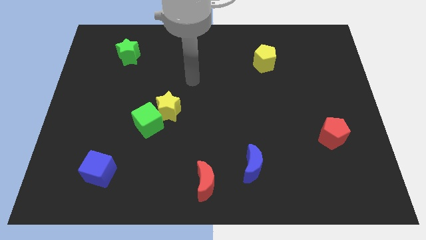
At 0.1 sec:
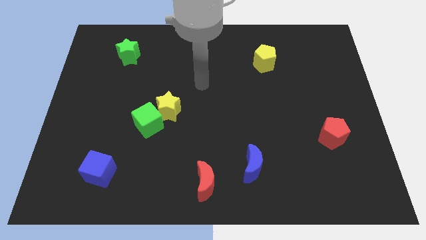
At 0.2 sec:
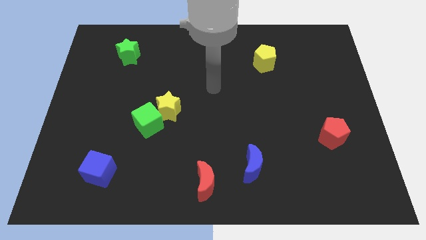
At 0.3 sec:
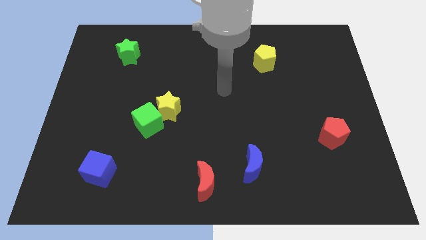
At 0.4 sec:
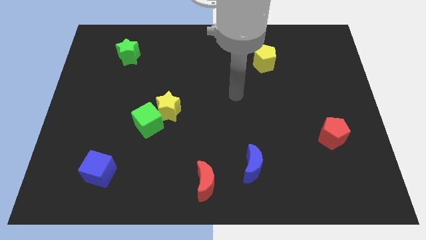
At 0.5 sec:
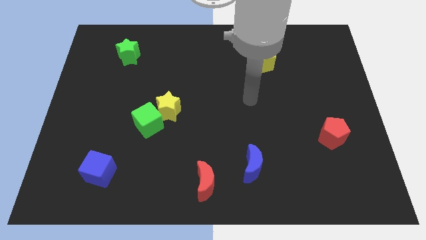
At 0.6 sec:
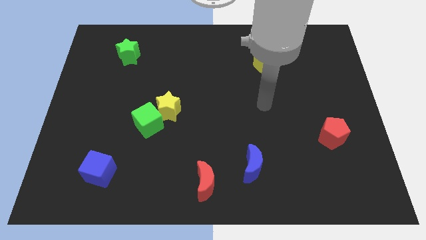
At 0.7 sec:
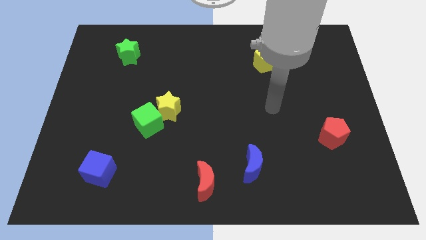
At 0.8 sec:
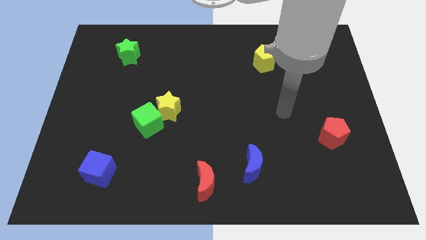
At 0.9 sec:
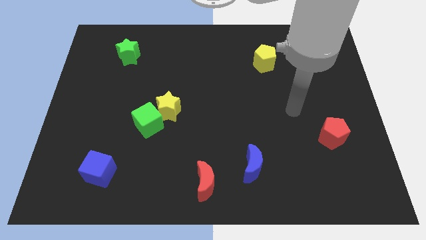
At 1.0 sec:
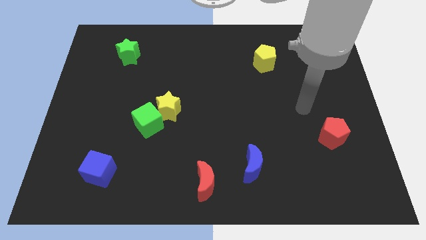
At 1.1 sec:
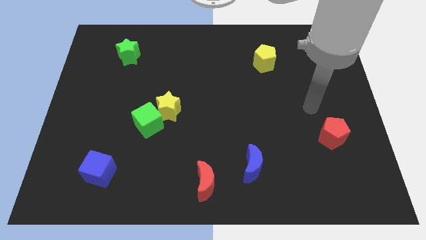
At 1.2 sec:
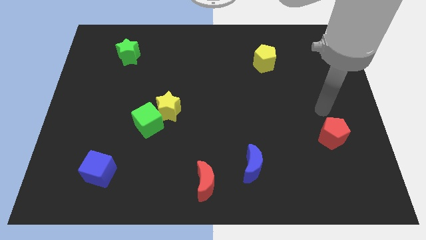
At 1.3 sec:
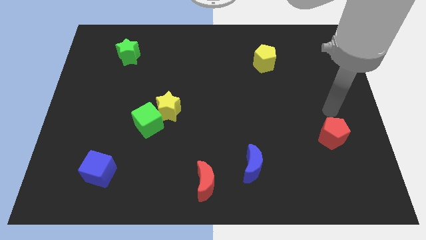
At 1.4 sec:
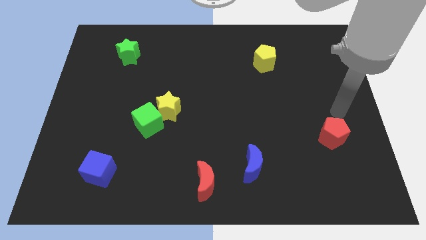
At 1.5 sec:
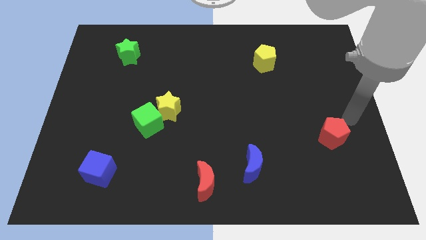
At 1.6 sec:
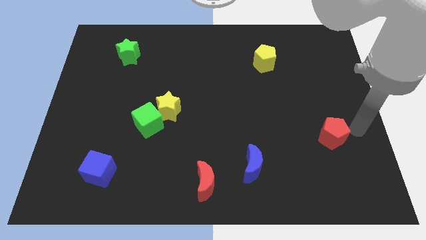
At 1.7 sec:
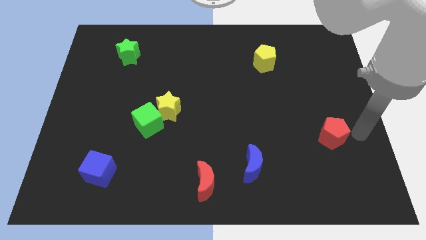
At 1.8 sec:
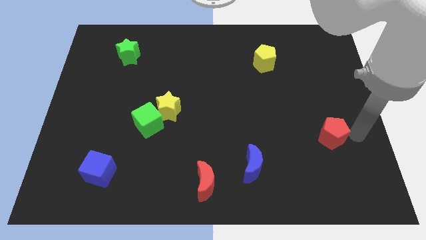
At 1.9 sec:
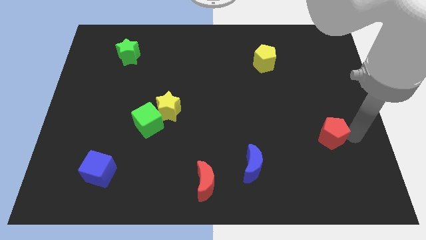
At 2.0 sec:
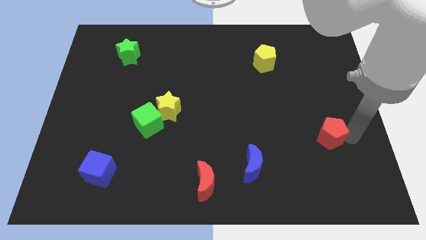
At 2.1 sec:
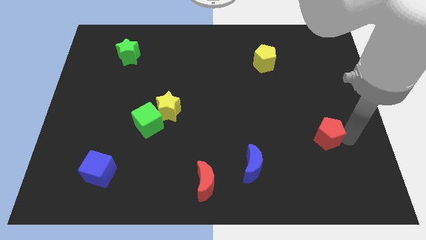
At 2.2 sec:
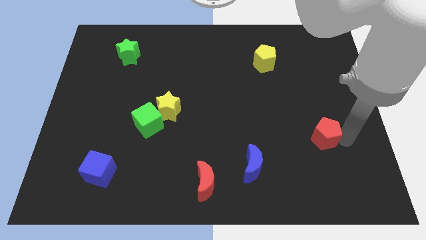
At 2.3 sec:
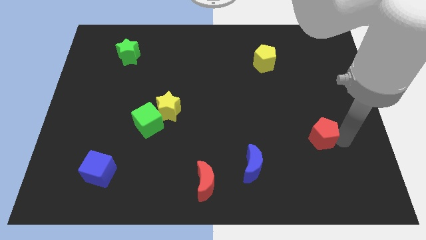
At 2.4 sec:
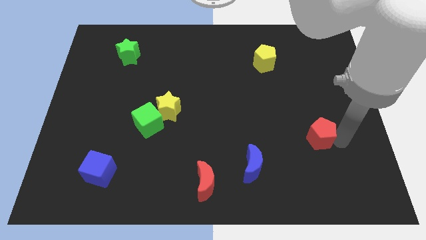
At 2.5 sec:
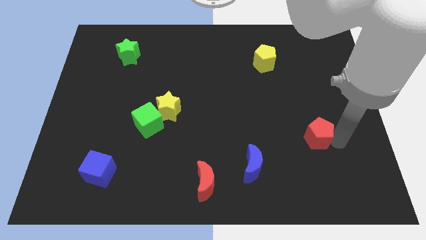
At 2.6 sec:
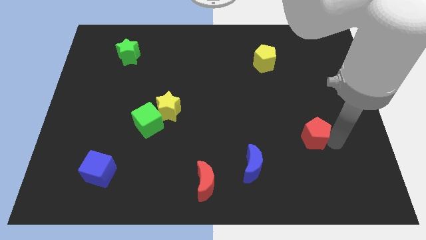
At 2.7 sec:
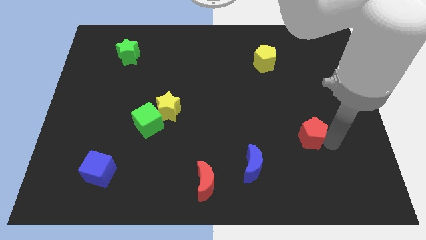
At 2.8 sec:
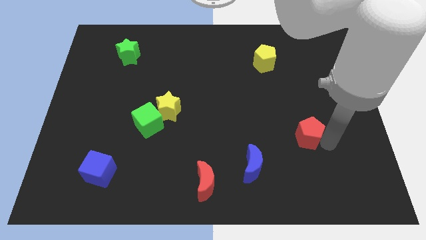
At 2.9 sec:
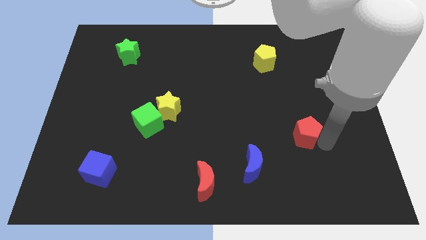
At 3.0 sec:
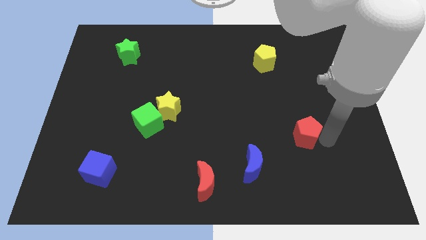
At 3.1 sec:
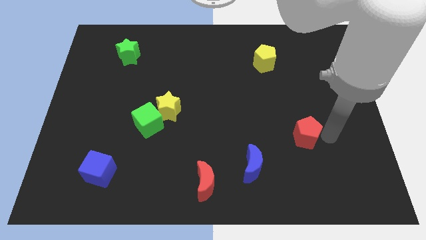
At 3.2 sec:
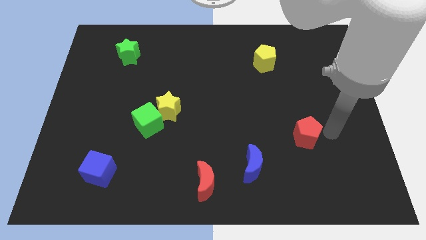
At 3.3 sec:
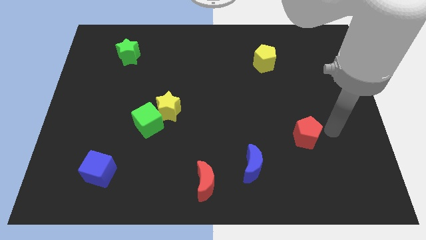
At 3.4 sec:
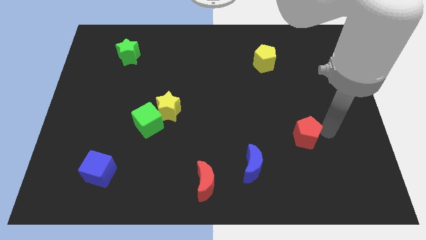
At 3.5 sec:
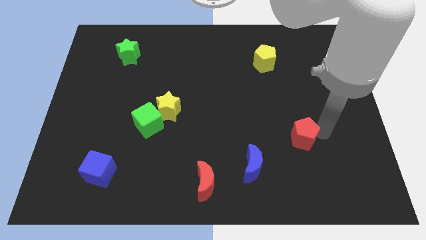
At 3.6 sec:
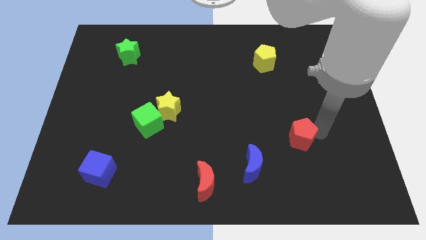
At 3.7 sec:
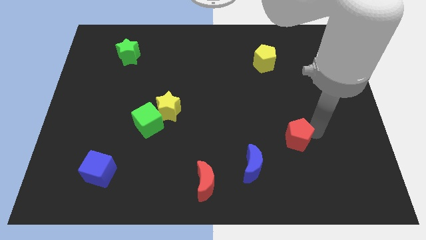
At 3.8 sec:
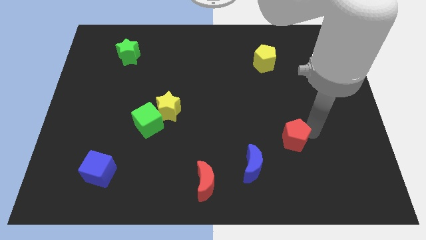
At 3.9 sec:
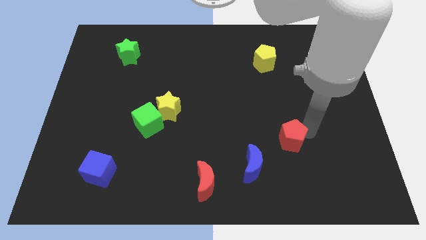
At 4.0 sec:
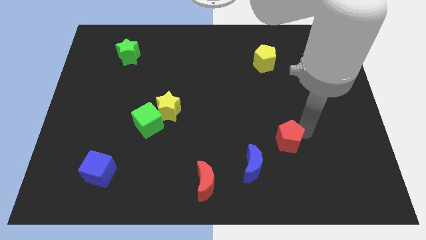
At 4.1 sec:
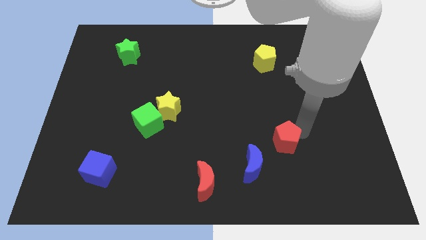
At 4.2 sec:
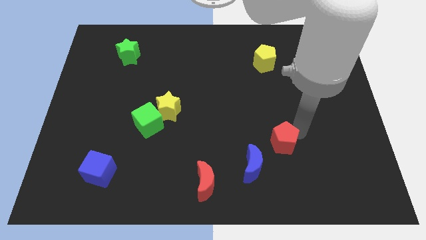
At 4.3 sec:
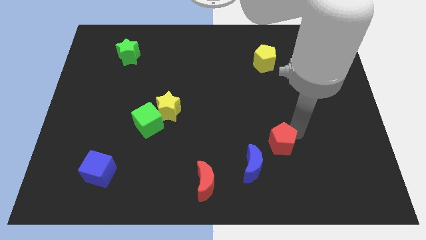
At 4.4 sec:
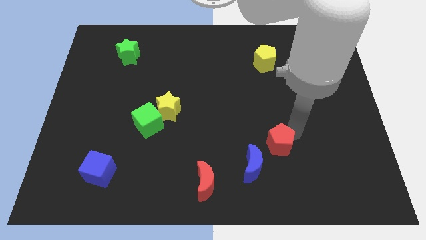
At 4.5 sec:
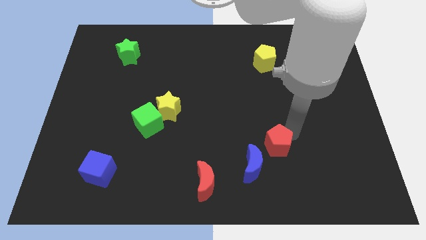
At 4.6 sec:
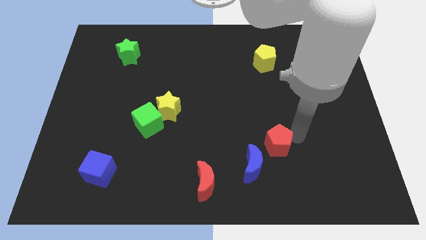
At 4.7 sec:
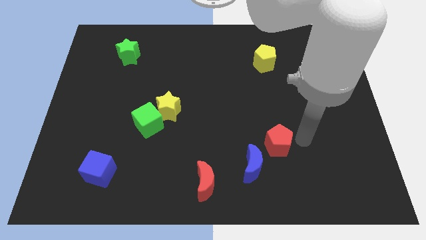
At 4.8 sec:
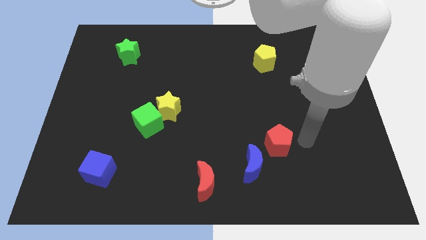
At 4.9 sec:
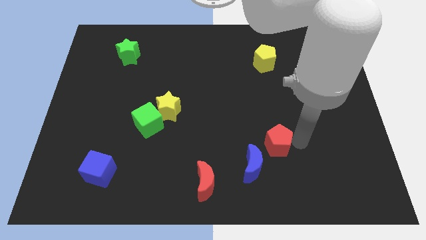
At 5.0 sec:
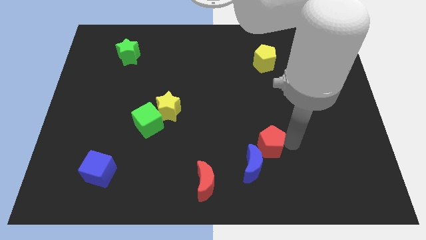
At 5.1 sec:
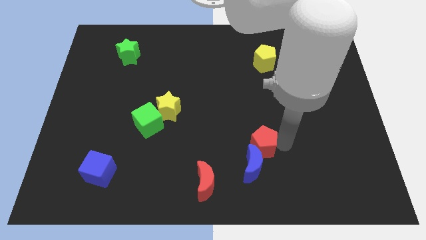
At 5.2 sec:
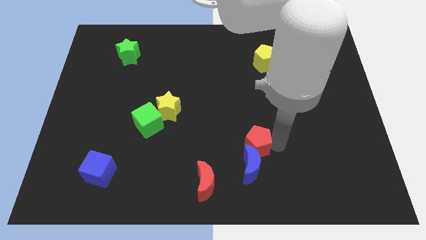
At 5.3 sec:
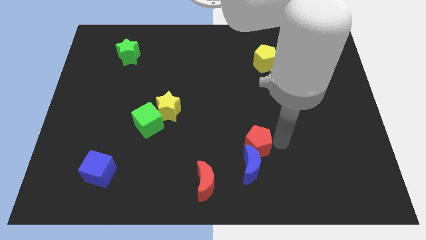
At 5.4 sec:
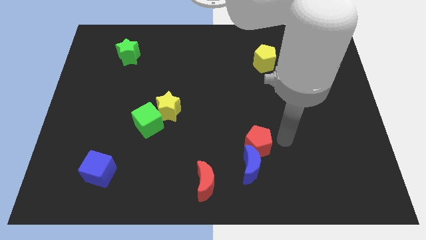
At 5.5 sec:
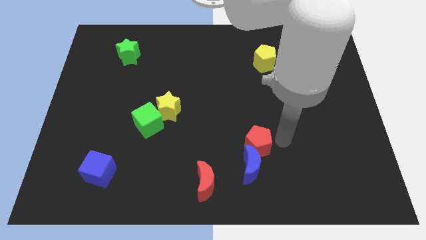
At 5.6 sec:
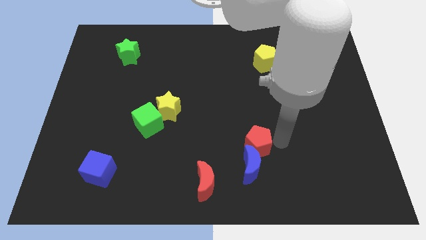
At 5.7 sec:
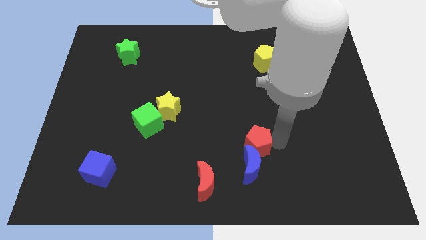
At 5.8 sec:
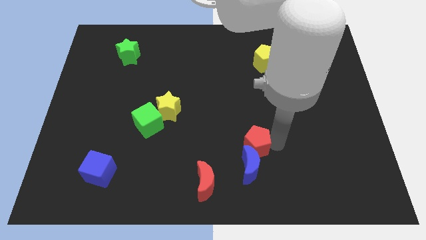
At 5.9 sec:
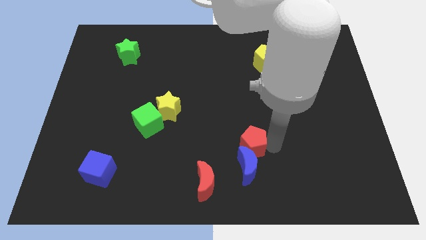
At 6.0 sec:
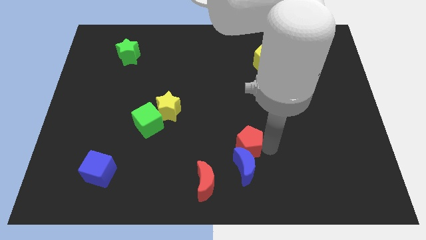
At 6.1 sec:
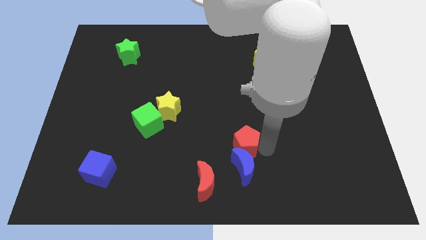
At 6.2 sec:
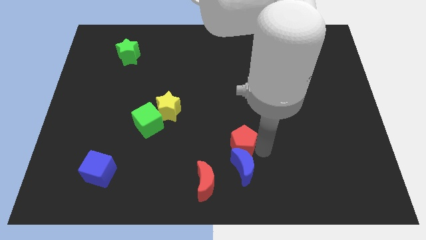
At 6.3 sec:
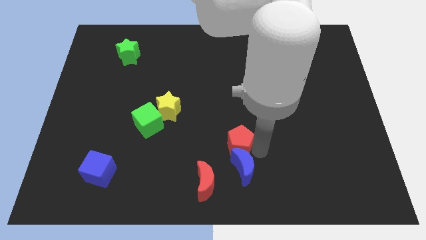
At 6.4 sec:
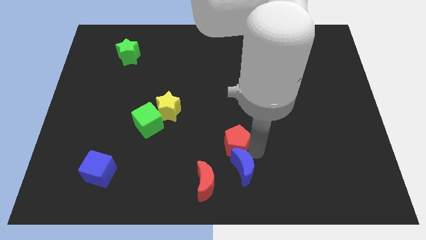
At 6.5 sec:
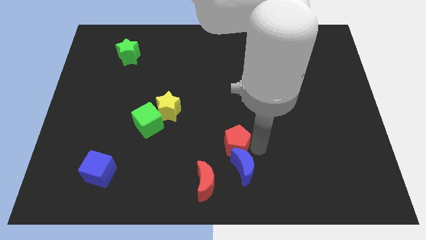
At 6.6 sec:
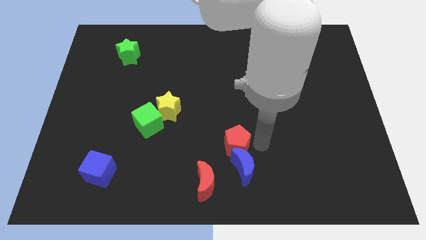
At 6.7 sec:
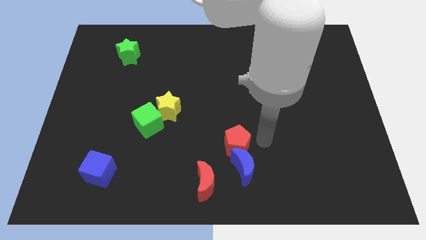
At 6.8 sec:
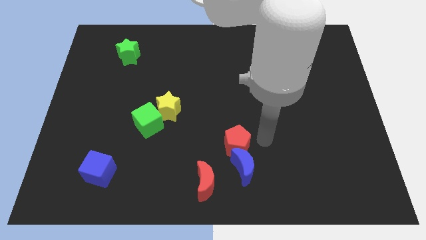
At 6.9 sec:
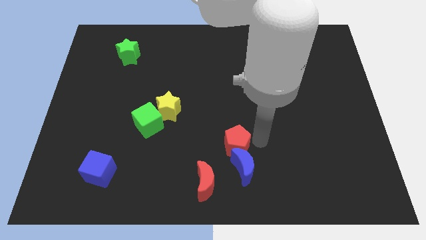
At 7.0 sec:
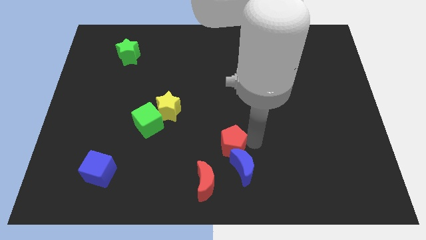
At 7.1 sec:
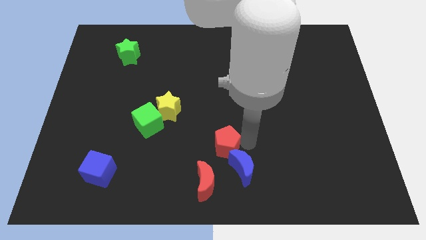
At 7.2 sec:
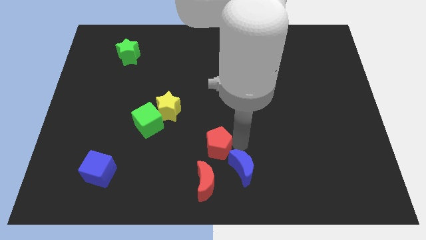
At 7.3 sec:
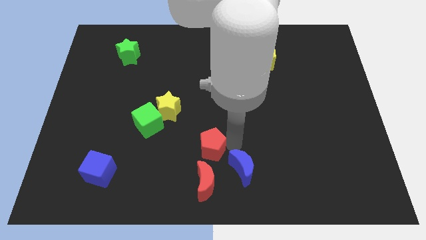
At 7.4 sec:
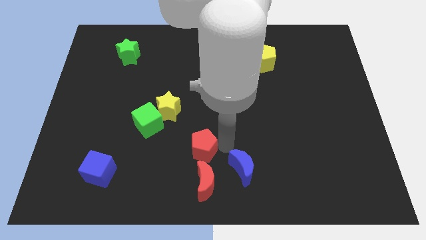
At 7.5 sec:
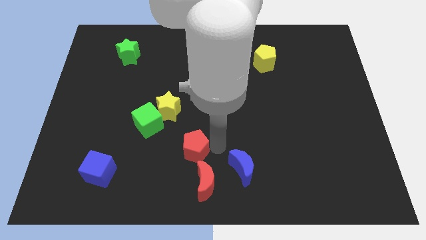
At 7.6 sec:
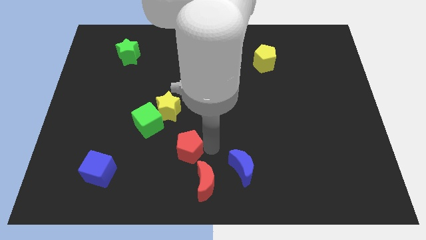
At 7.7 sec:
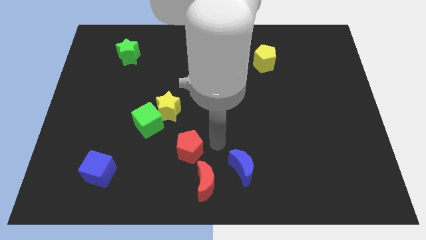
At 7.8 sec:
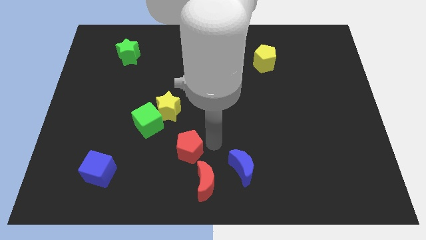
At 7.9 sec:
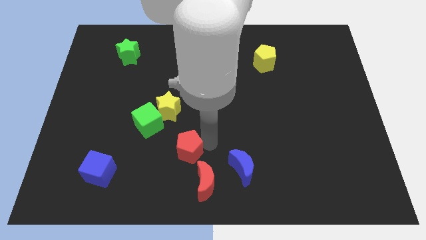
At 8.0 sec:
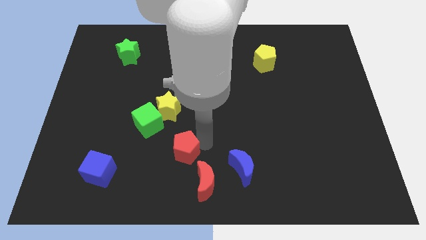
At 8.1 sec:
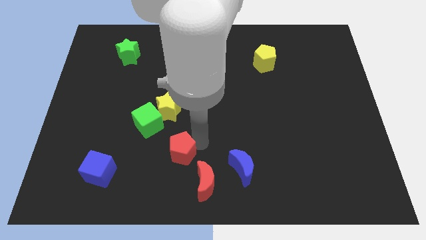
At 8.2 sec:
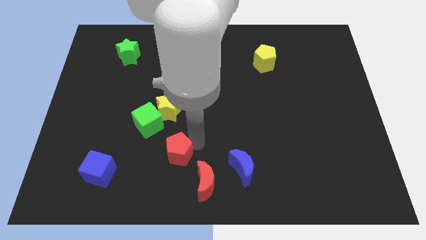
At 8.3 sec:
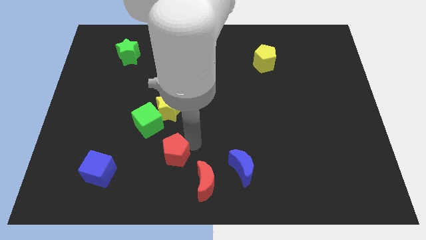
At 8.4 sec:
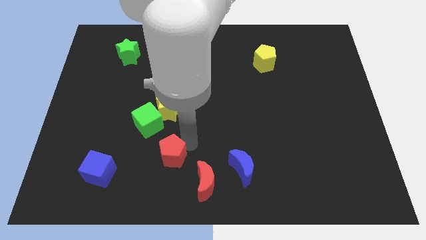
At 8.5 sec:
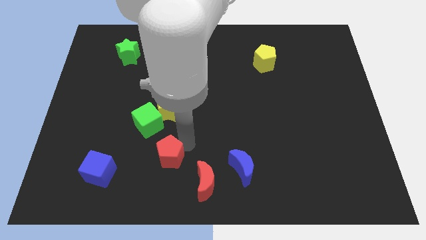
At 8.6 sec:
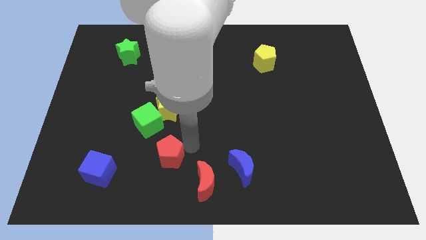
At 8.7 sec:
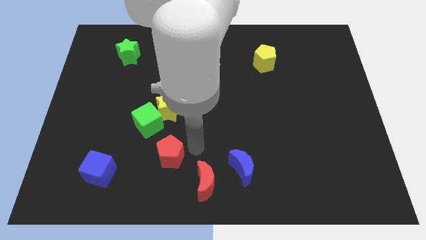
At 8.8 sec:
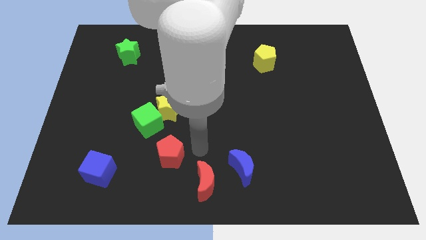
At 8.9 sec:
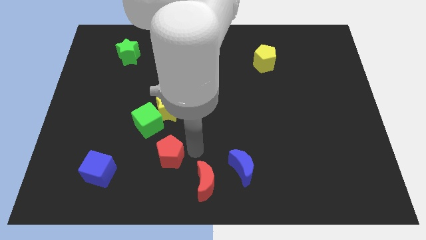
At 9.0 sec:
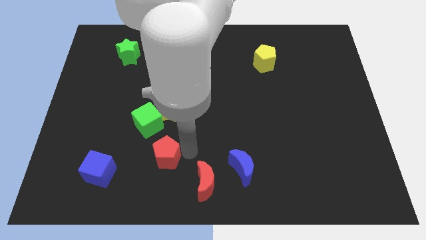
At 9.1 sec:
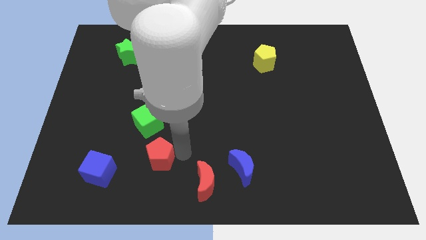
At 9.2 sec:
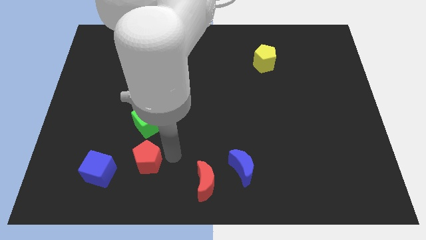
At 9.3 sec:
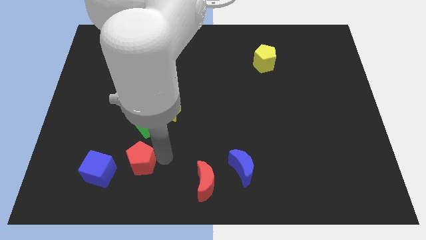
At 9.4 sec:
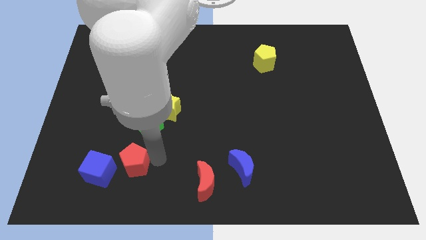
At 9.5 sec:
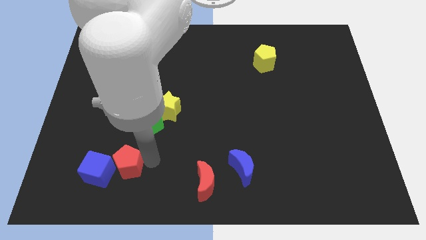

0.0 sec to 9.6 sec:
push the red pentagon next to the blue cube
